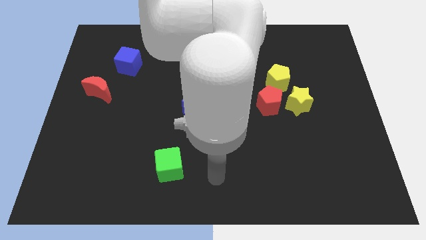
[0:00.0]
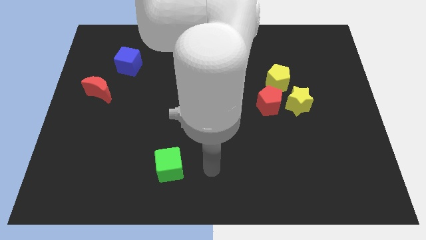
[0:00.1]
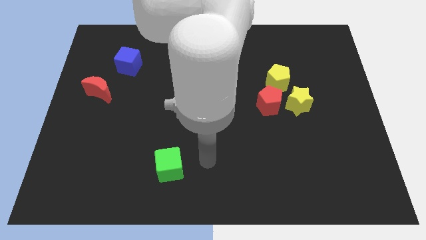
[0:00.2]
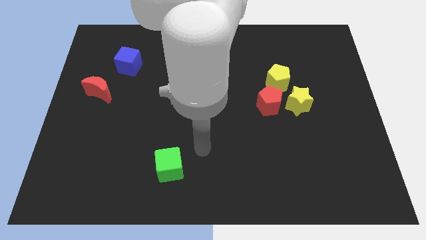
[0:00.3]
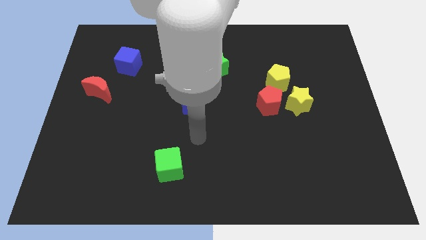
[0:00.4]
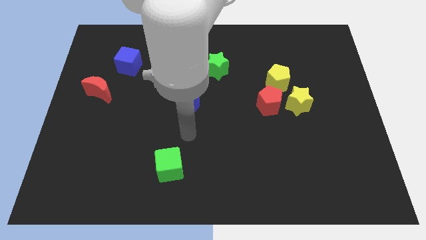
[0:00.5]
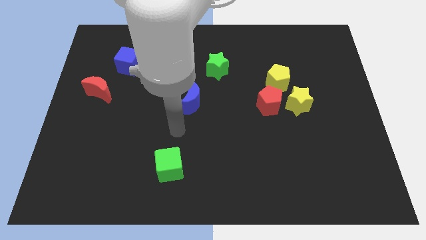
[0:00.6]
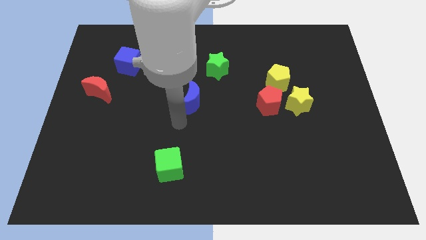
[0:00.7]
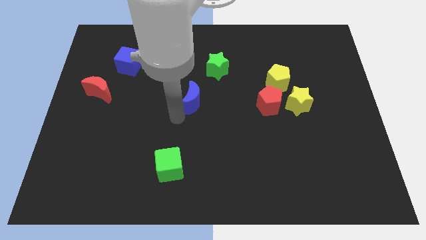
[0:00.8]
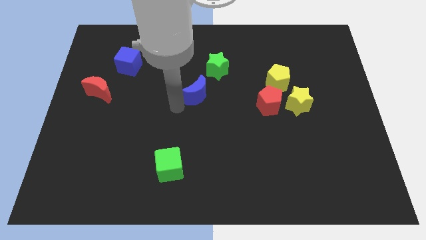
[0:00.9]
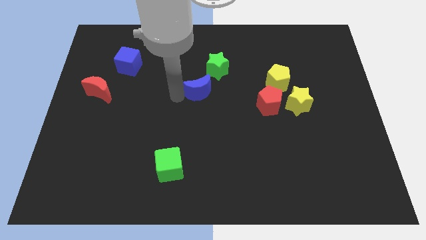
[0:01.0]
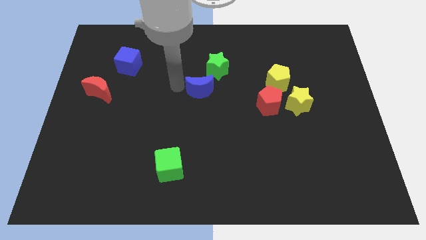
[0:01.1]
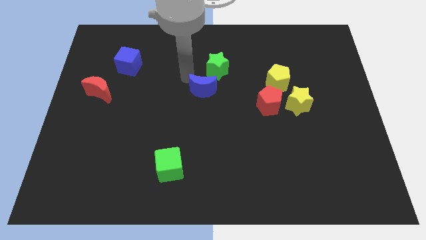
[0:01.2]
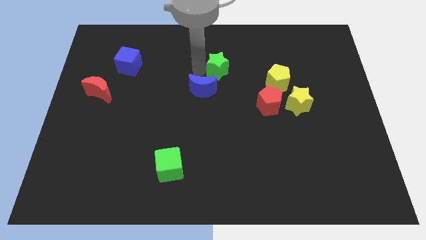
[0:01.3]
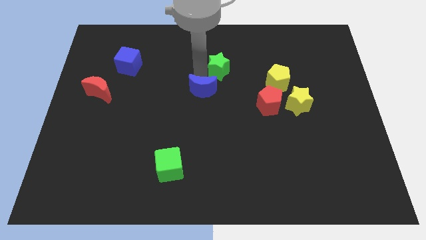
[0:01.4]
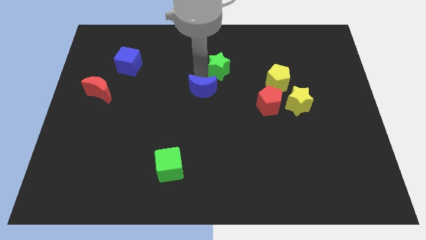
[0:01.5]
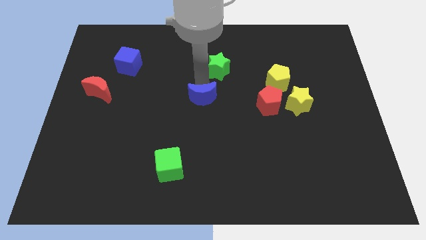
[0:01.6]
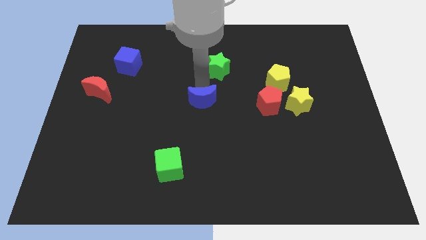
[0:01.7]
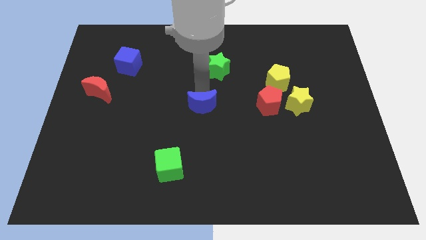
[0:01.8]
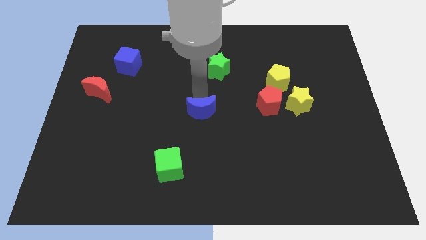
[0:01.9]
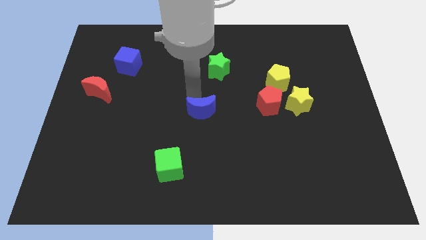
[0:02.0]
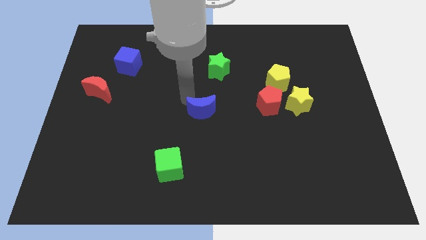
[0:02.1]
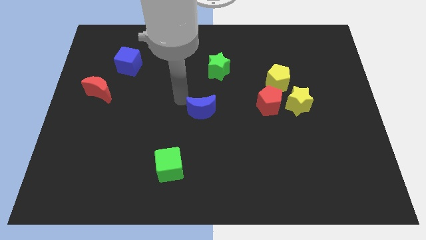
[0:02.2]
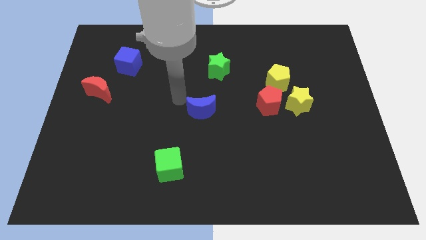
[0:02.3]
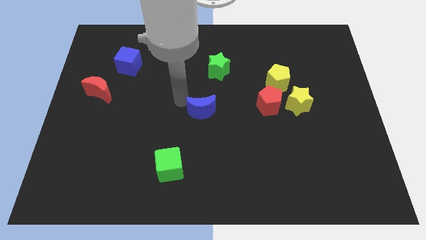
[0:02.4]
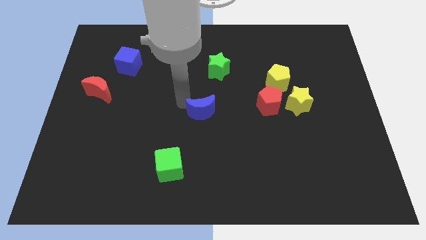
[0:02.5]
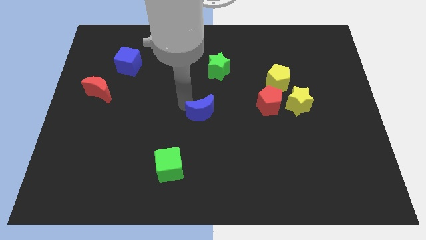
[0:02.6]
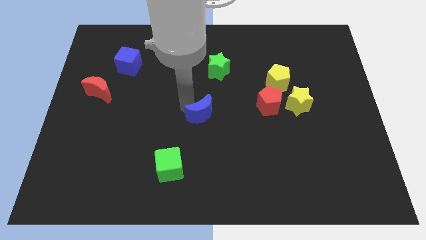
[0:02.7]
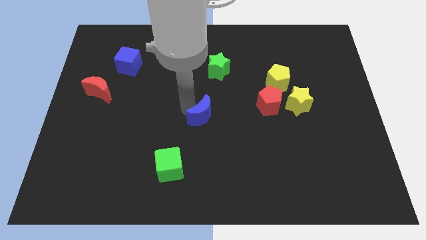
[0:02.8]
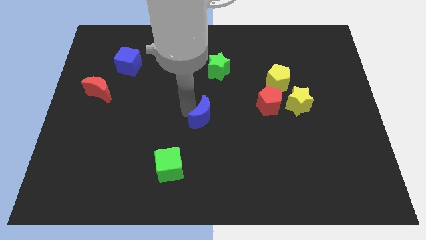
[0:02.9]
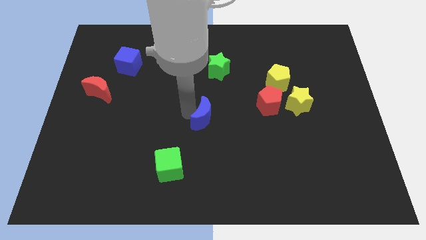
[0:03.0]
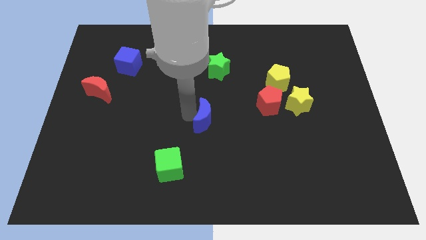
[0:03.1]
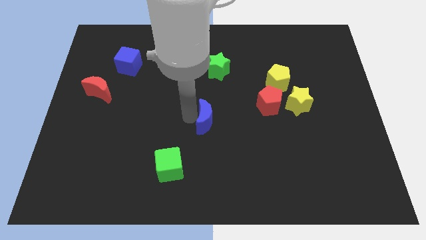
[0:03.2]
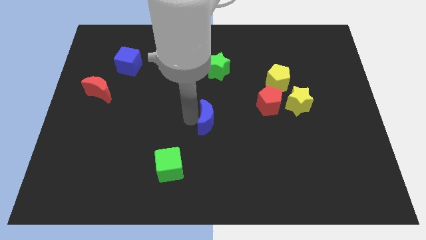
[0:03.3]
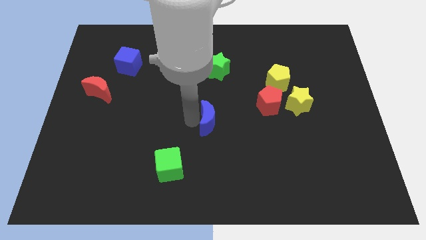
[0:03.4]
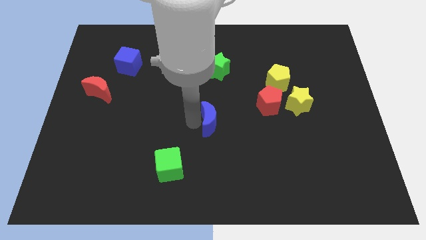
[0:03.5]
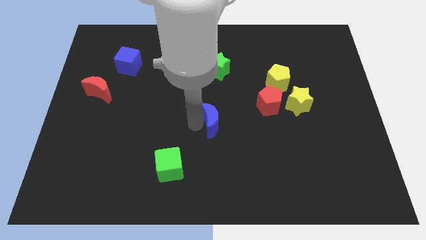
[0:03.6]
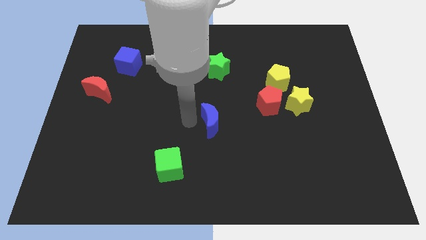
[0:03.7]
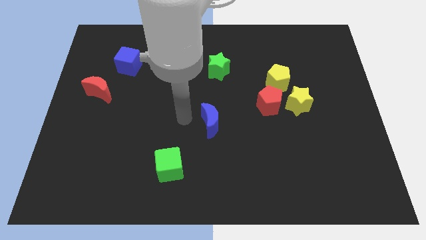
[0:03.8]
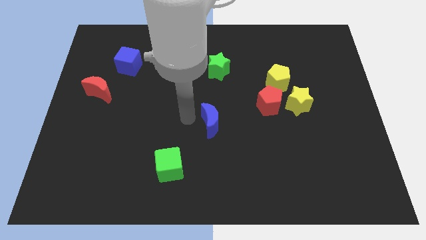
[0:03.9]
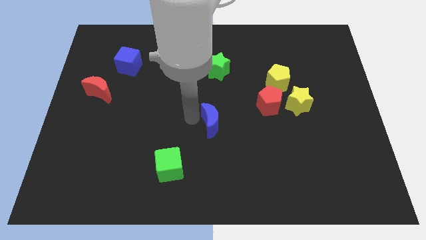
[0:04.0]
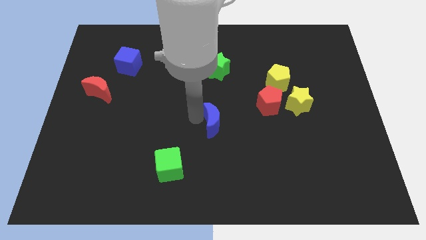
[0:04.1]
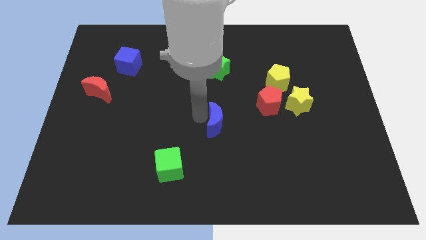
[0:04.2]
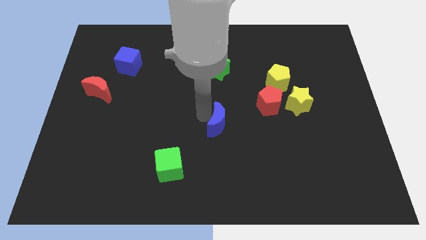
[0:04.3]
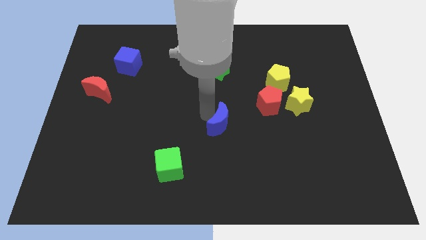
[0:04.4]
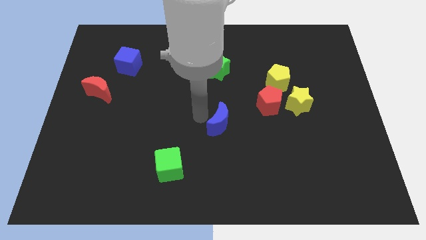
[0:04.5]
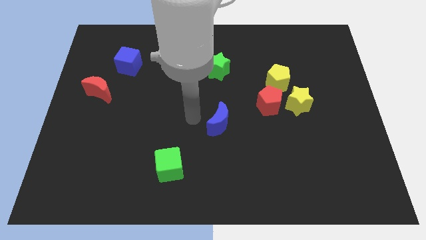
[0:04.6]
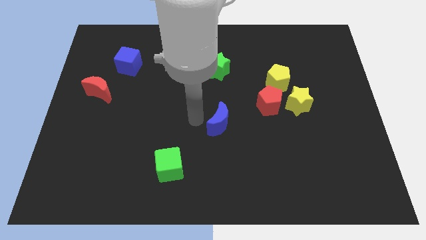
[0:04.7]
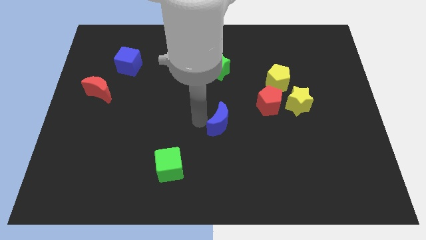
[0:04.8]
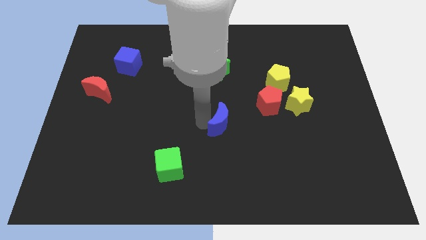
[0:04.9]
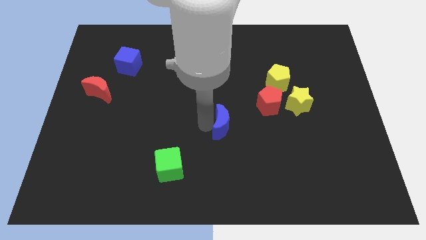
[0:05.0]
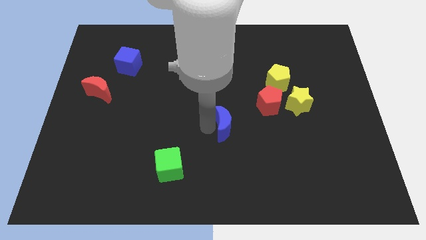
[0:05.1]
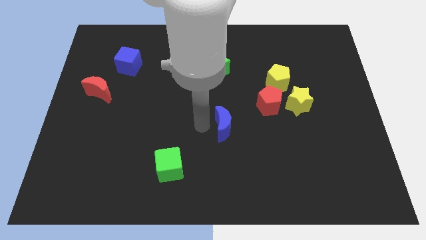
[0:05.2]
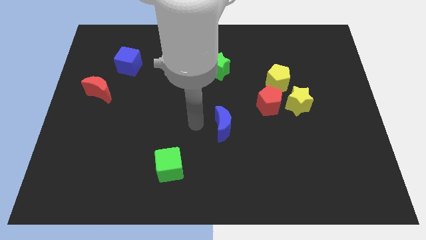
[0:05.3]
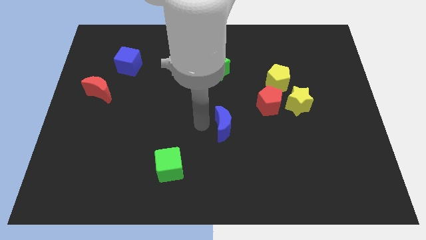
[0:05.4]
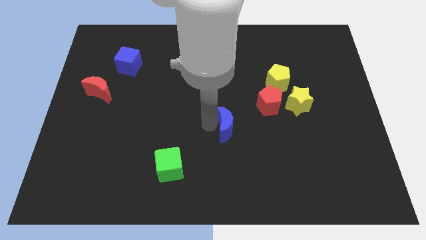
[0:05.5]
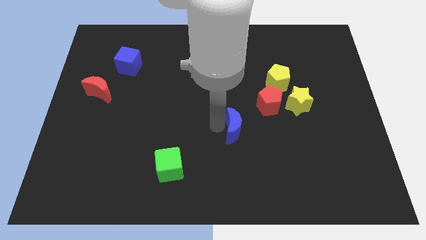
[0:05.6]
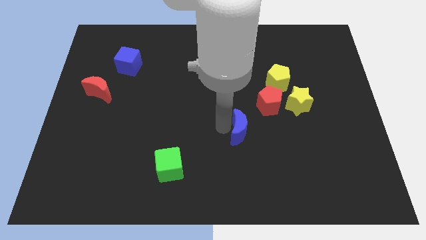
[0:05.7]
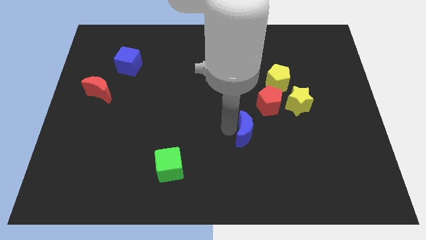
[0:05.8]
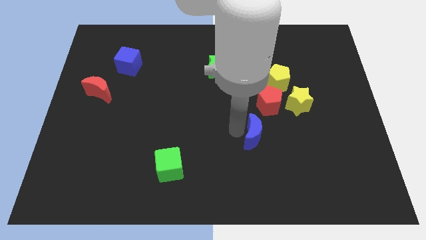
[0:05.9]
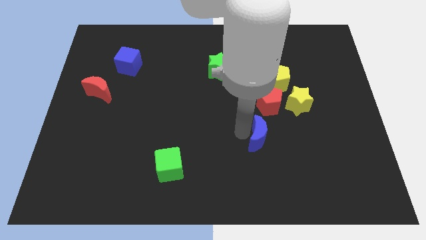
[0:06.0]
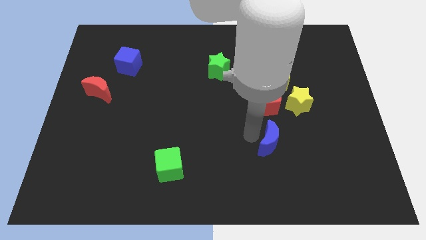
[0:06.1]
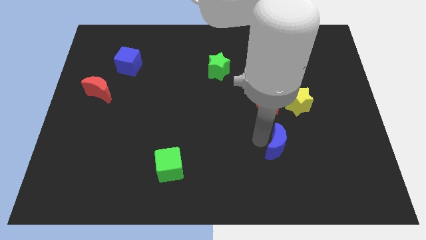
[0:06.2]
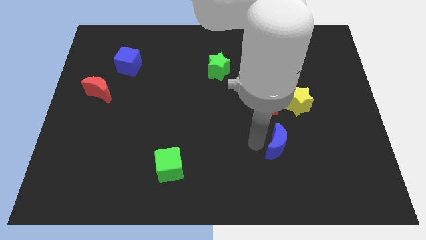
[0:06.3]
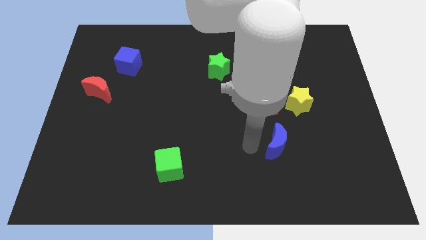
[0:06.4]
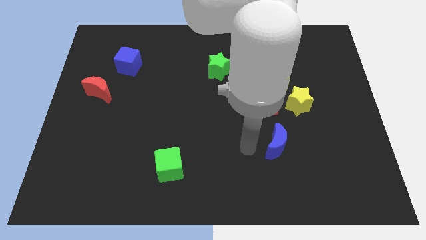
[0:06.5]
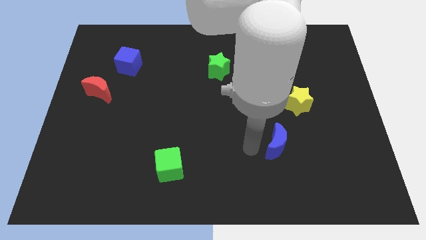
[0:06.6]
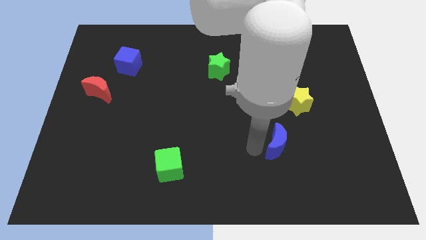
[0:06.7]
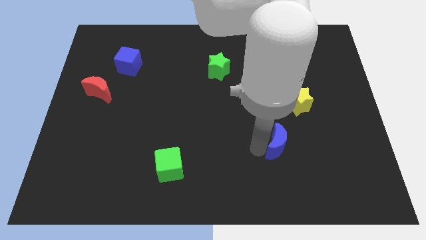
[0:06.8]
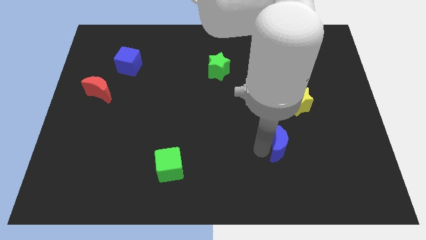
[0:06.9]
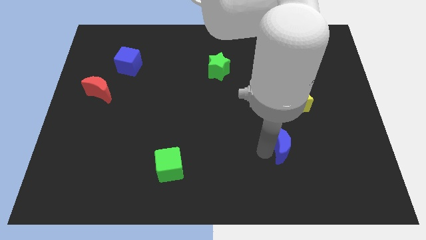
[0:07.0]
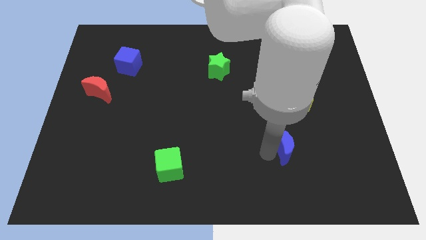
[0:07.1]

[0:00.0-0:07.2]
move the blue moon to the bottom of the yellow star

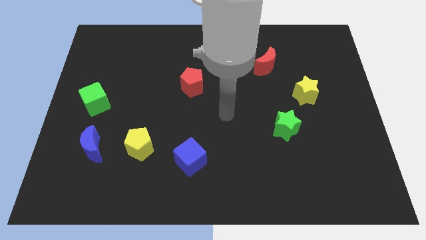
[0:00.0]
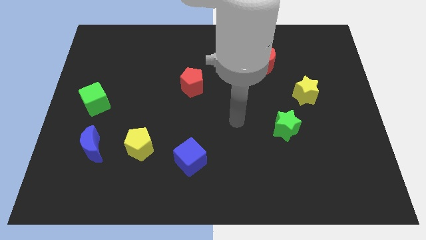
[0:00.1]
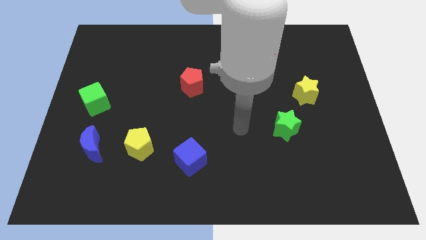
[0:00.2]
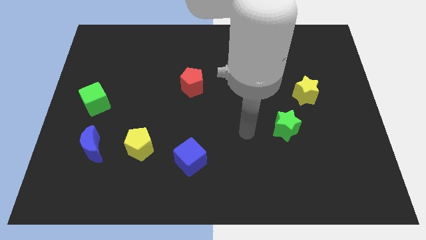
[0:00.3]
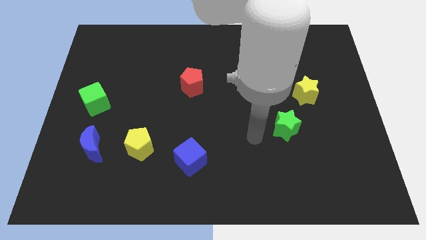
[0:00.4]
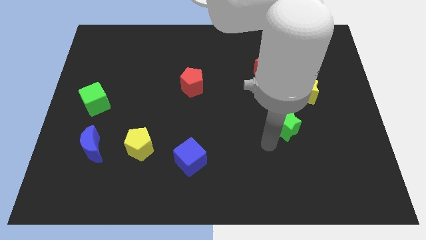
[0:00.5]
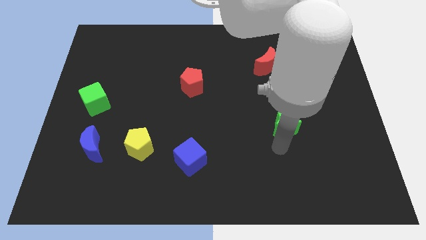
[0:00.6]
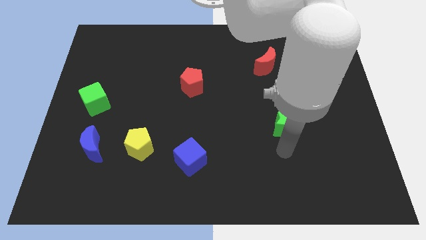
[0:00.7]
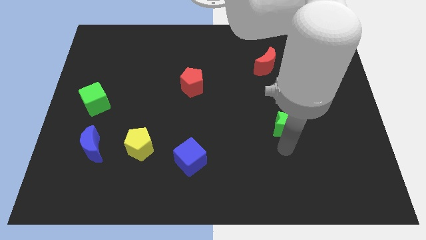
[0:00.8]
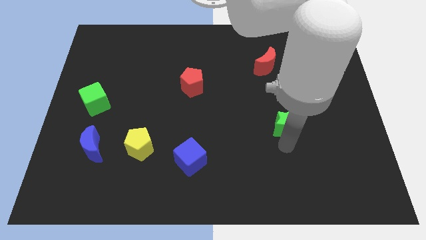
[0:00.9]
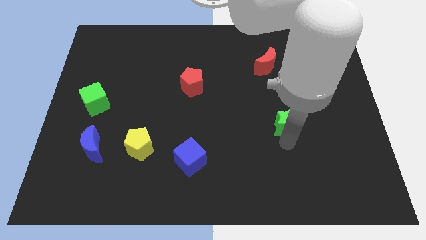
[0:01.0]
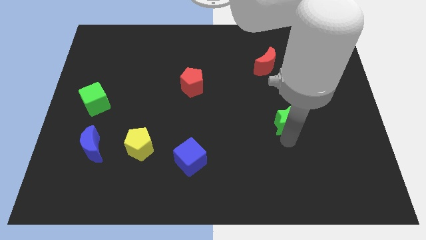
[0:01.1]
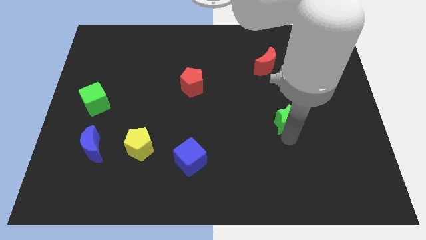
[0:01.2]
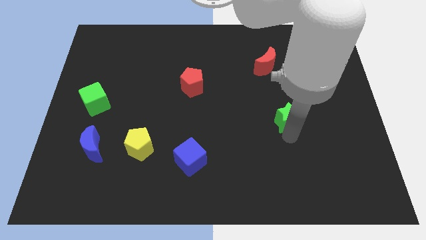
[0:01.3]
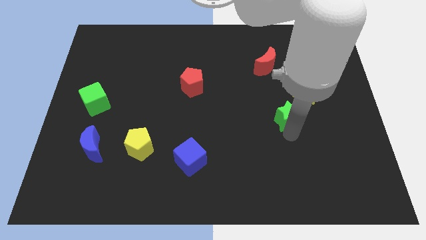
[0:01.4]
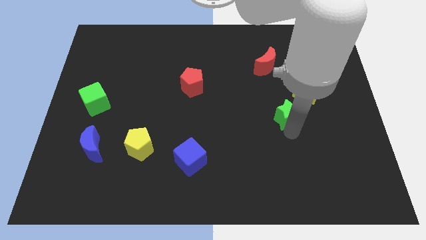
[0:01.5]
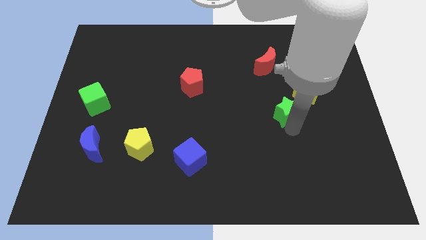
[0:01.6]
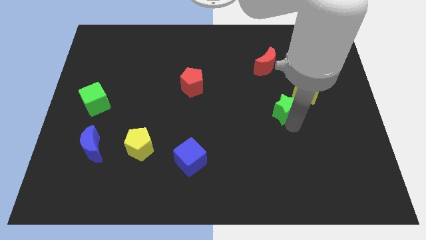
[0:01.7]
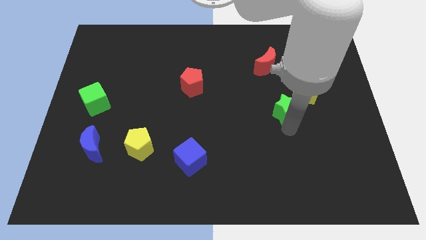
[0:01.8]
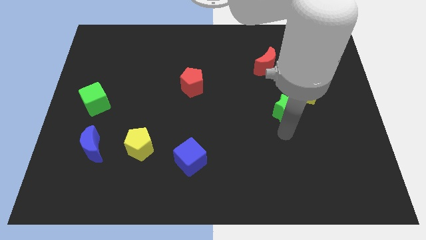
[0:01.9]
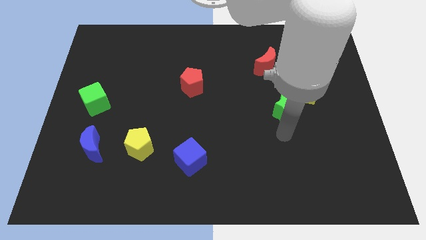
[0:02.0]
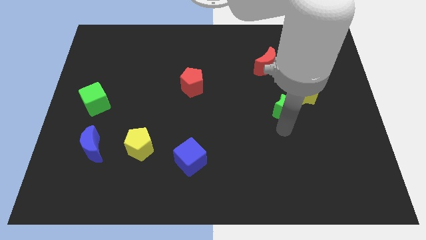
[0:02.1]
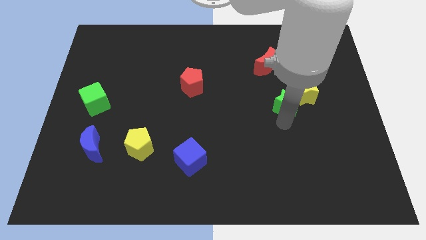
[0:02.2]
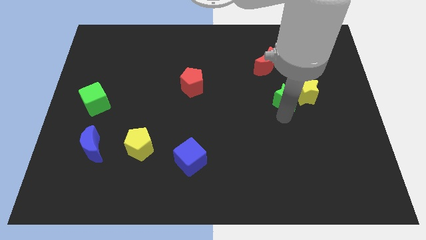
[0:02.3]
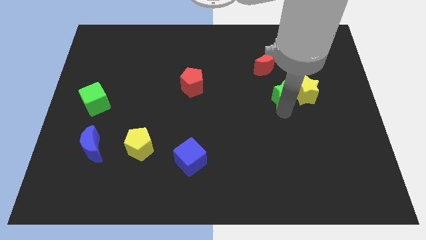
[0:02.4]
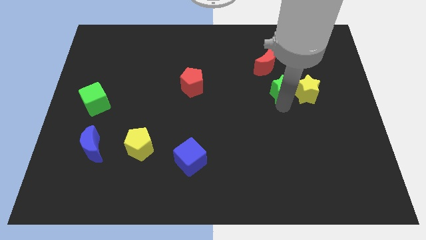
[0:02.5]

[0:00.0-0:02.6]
move the green star to the top left side of the yellow star
